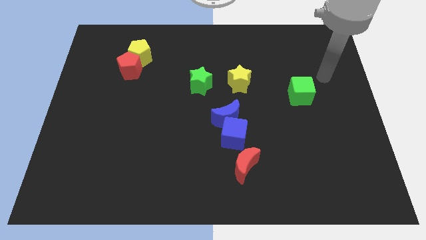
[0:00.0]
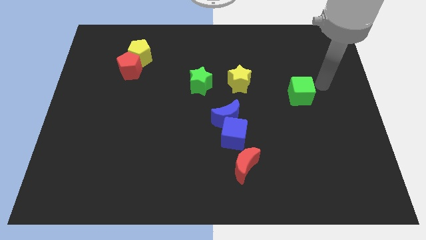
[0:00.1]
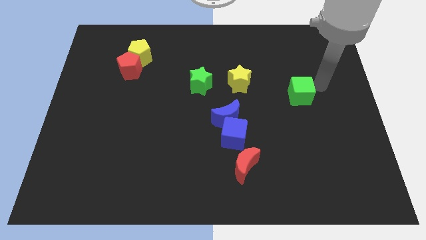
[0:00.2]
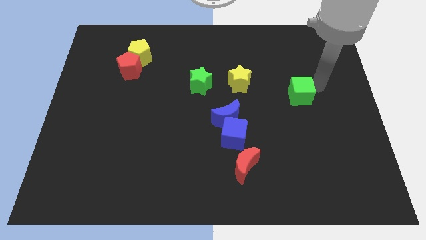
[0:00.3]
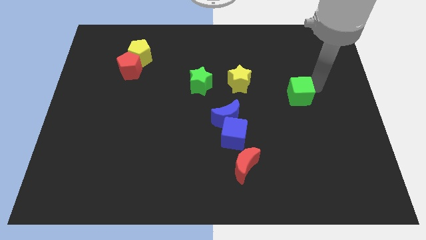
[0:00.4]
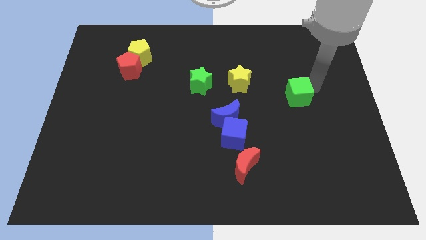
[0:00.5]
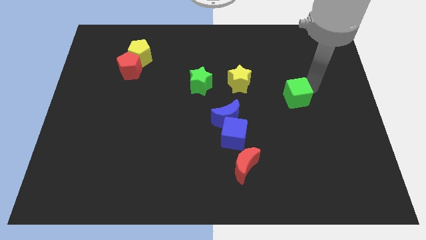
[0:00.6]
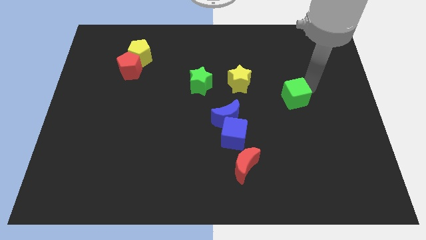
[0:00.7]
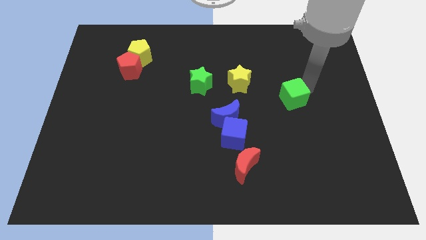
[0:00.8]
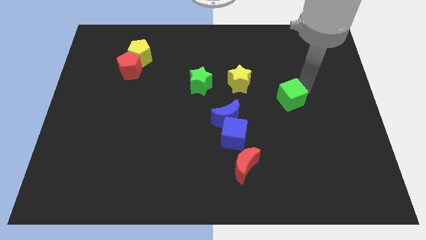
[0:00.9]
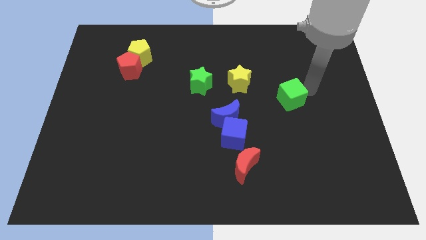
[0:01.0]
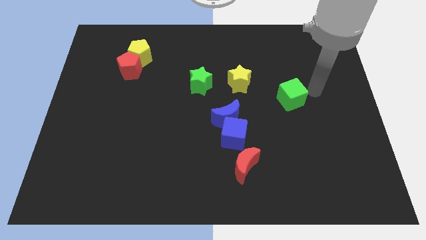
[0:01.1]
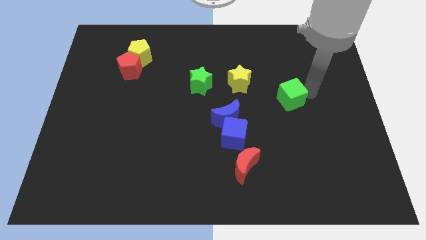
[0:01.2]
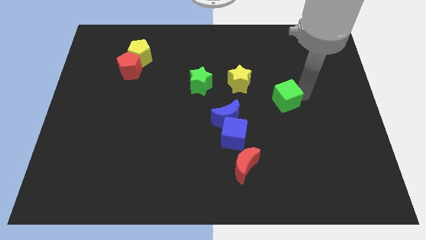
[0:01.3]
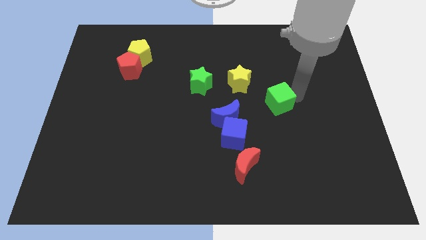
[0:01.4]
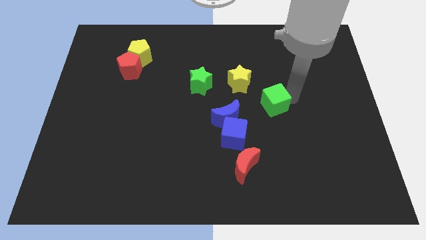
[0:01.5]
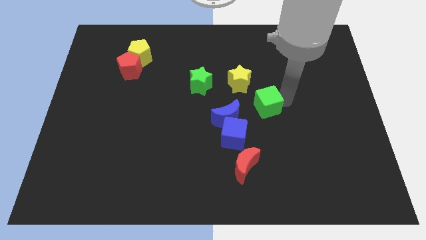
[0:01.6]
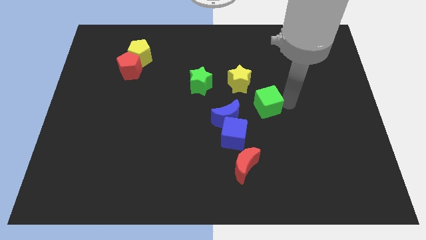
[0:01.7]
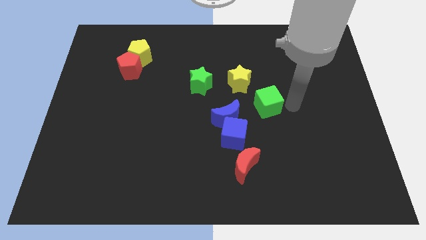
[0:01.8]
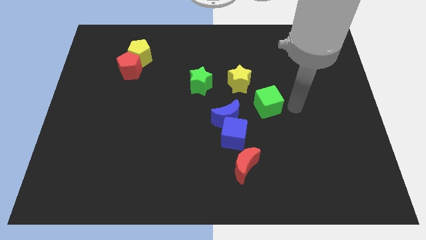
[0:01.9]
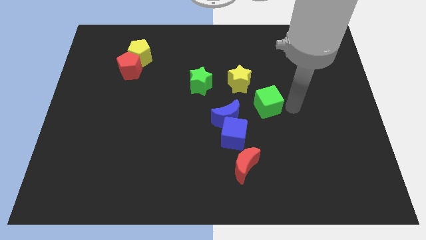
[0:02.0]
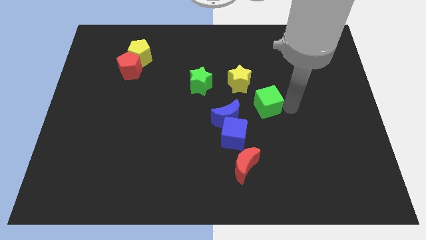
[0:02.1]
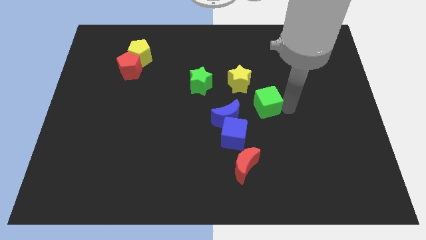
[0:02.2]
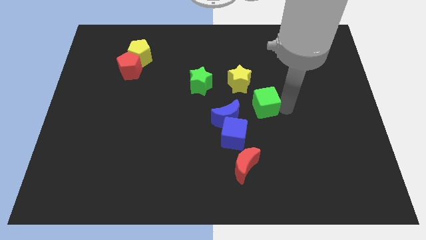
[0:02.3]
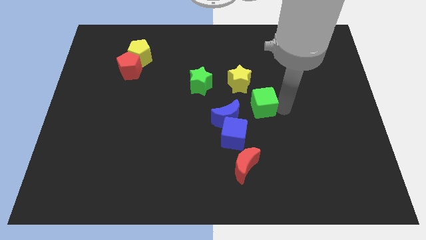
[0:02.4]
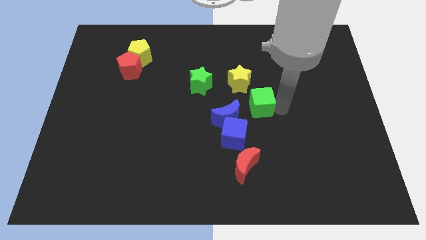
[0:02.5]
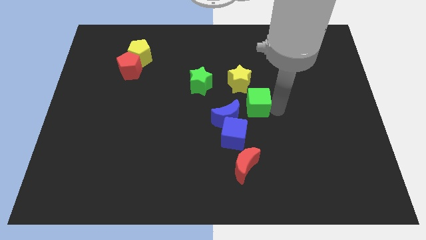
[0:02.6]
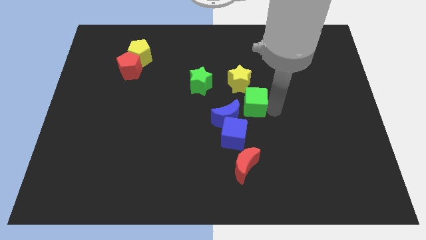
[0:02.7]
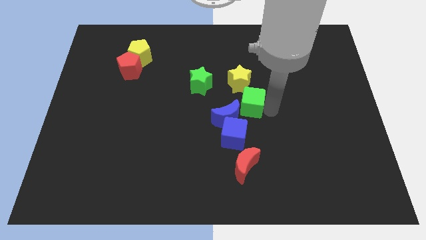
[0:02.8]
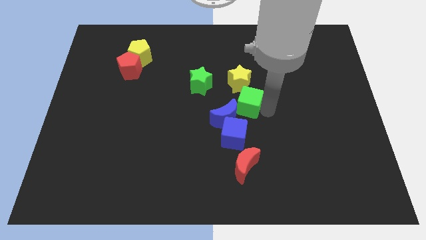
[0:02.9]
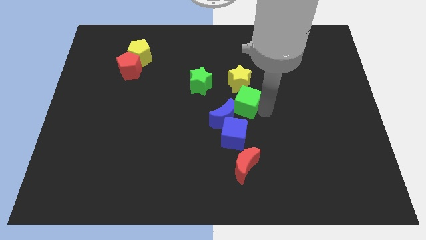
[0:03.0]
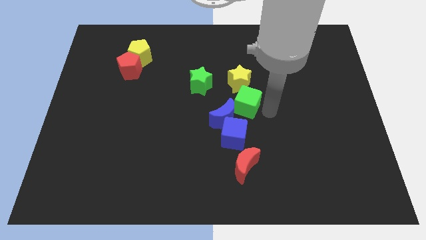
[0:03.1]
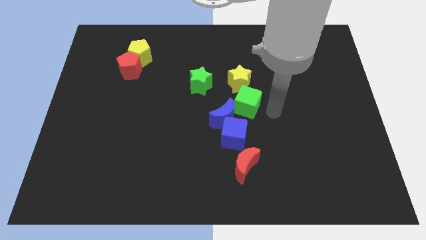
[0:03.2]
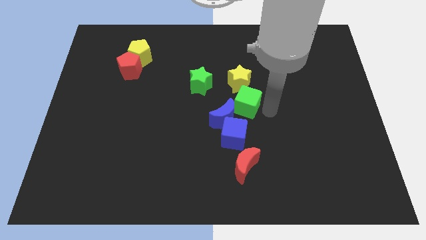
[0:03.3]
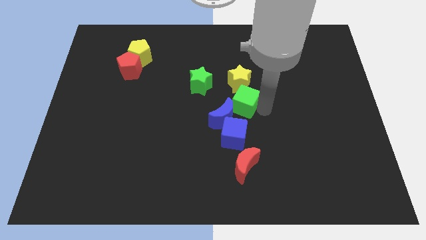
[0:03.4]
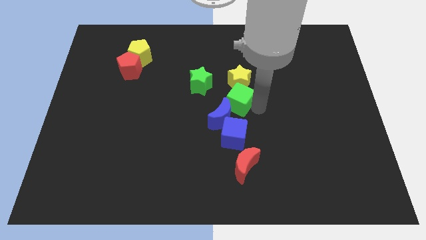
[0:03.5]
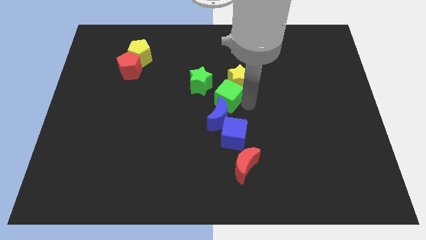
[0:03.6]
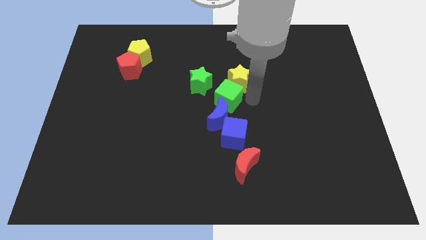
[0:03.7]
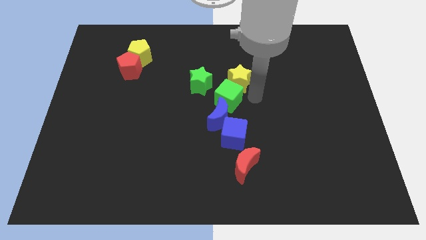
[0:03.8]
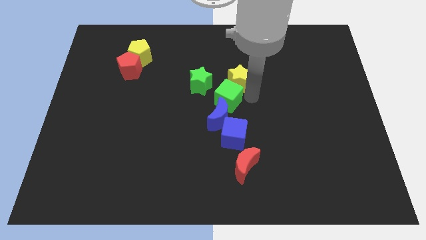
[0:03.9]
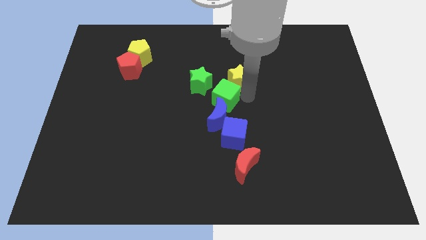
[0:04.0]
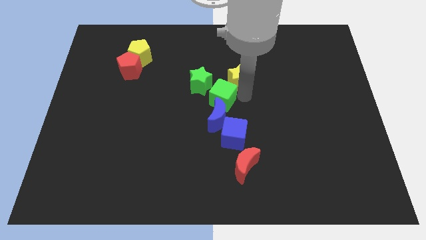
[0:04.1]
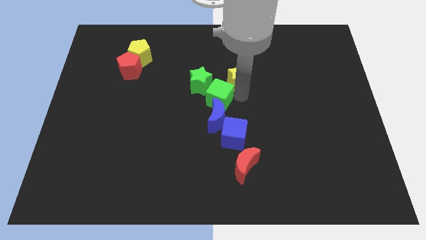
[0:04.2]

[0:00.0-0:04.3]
push the green cube left

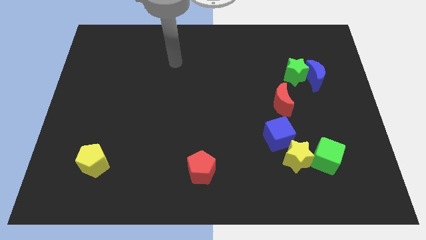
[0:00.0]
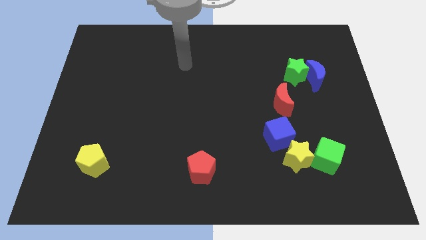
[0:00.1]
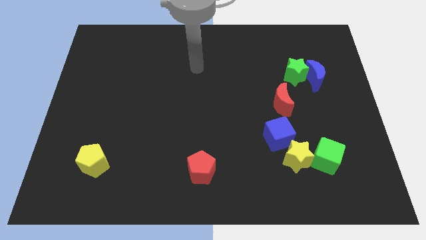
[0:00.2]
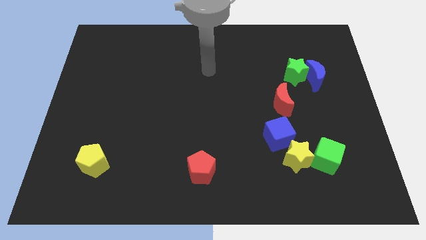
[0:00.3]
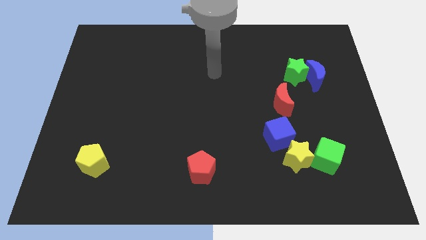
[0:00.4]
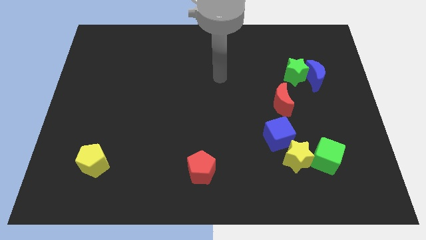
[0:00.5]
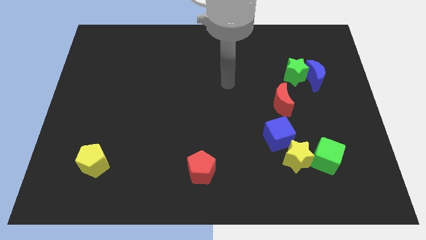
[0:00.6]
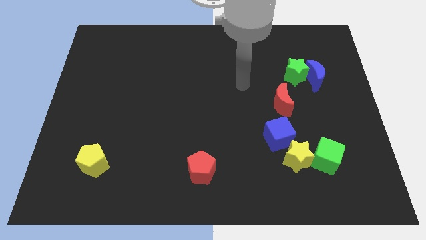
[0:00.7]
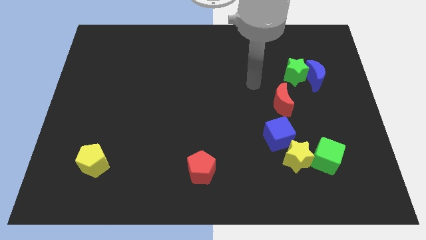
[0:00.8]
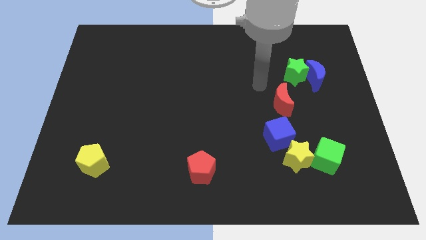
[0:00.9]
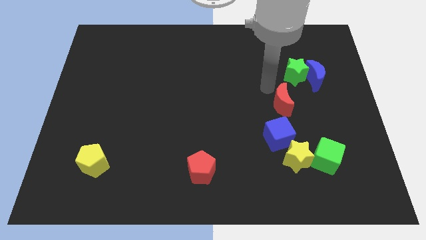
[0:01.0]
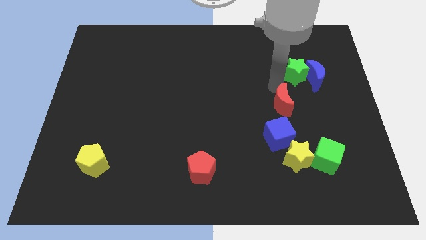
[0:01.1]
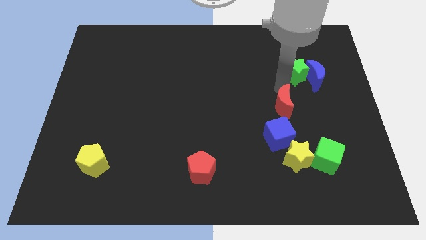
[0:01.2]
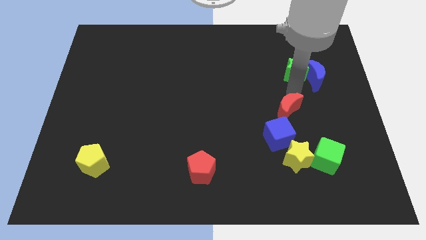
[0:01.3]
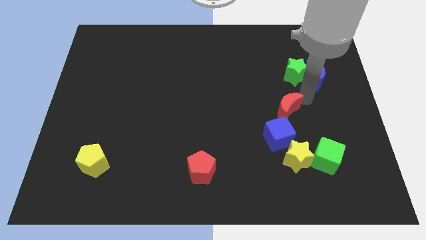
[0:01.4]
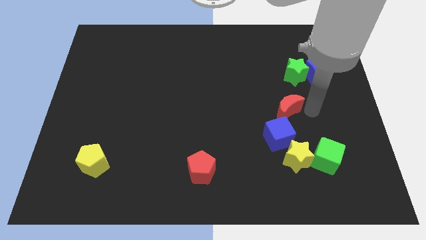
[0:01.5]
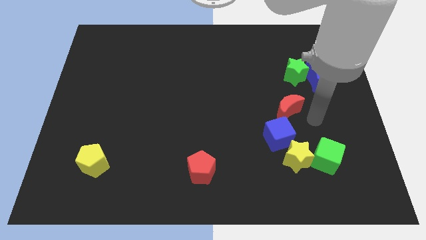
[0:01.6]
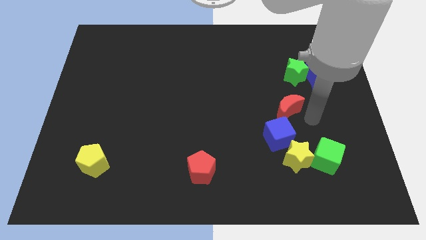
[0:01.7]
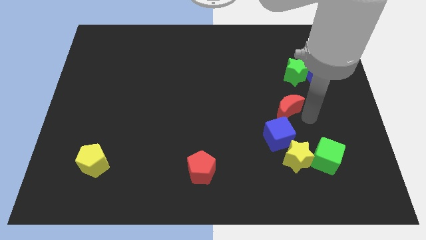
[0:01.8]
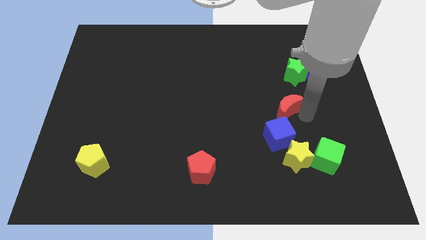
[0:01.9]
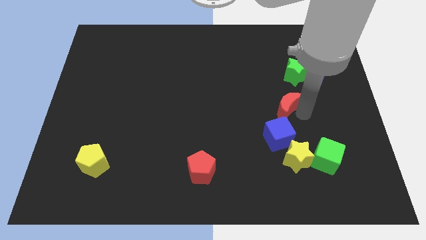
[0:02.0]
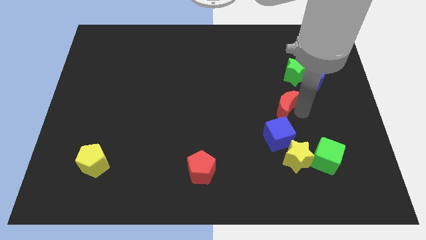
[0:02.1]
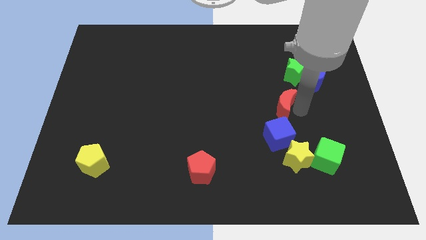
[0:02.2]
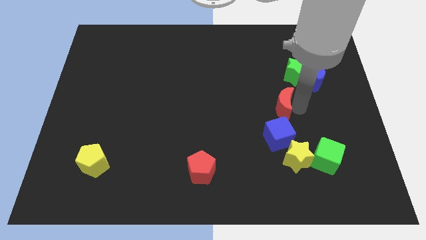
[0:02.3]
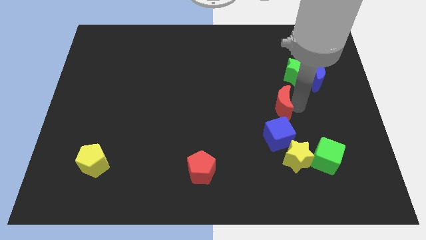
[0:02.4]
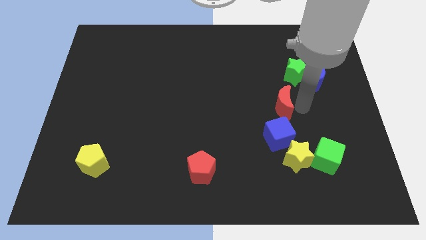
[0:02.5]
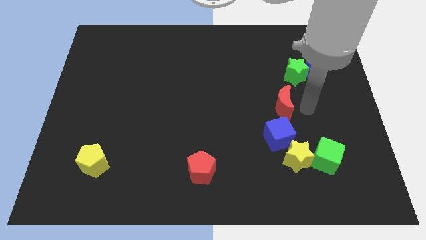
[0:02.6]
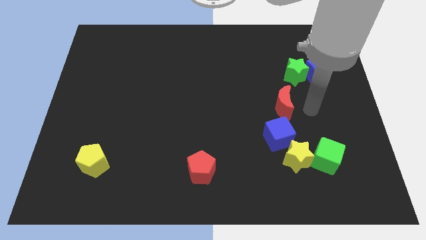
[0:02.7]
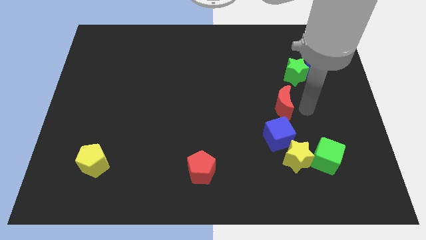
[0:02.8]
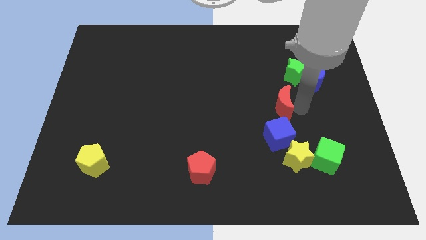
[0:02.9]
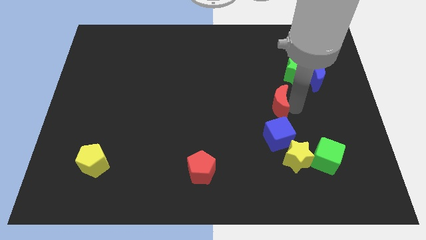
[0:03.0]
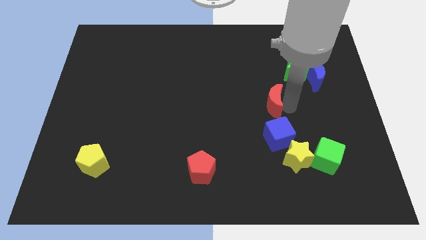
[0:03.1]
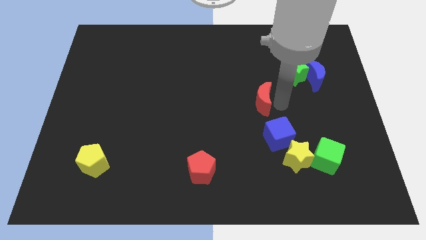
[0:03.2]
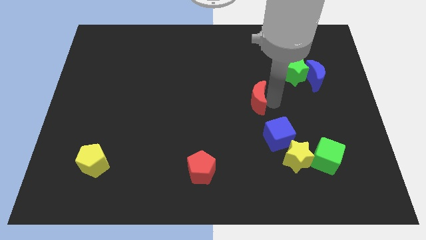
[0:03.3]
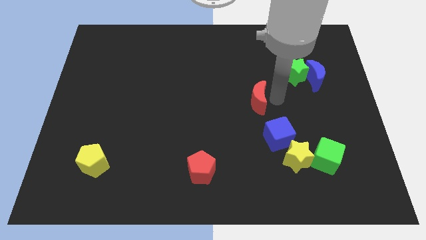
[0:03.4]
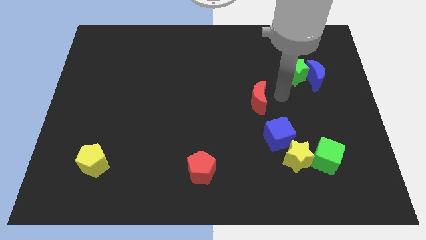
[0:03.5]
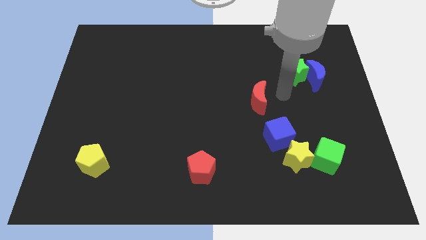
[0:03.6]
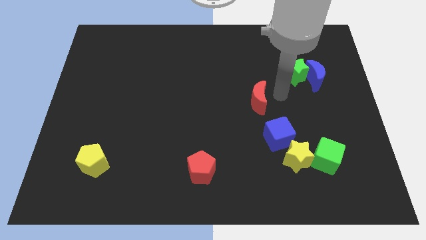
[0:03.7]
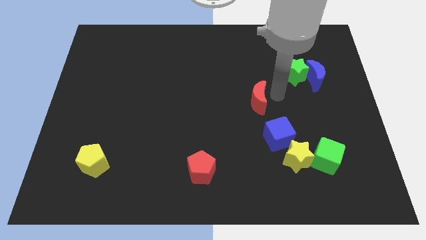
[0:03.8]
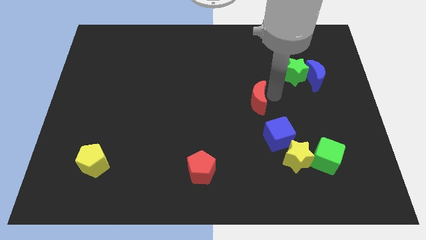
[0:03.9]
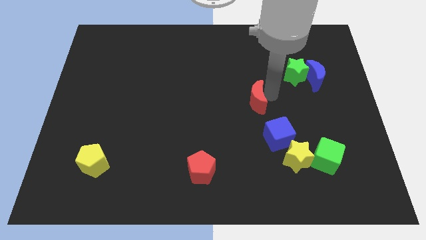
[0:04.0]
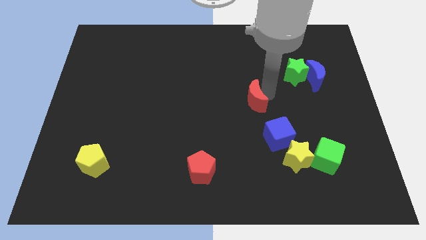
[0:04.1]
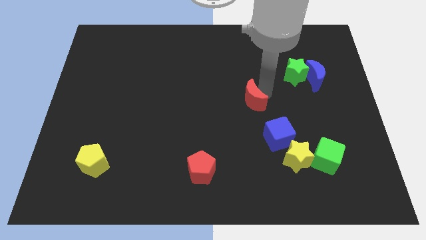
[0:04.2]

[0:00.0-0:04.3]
slightly move the red moon to the left
